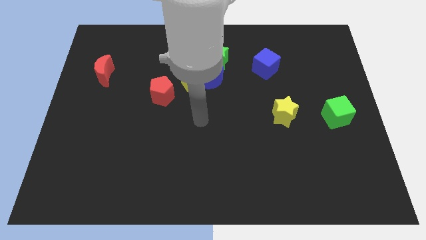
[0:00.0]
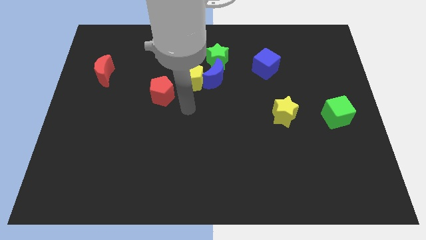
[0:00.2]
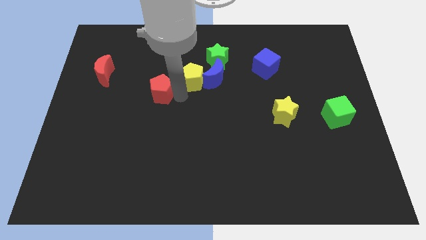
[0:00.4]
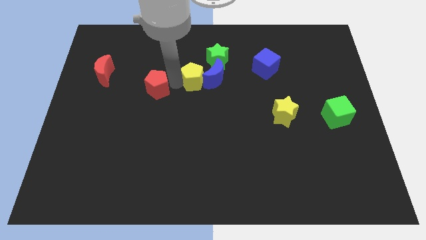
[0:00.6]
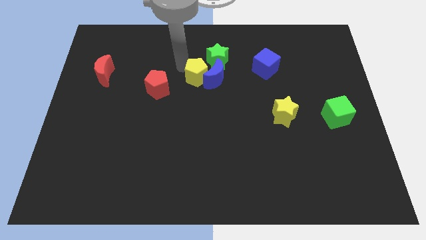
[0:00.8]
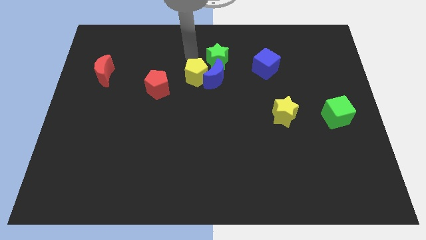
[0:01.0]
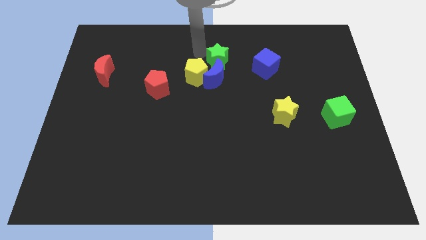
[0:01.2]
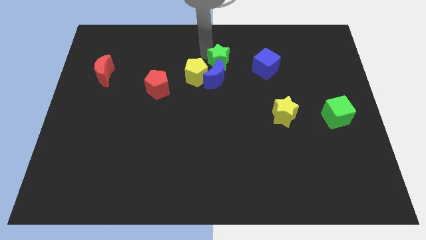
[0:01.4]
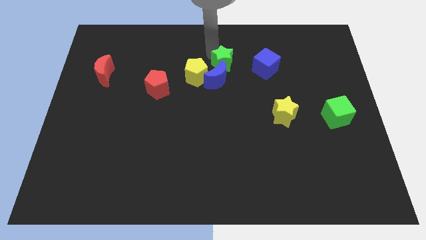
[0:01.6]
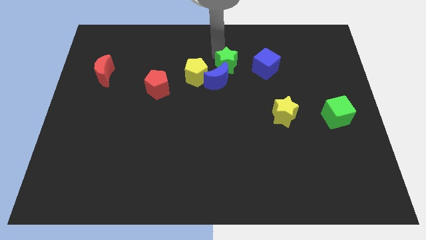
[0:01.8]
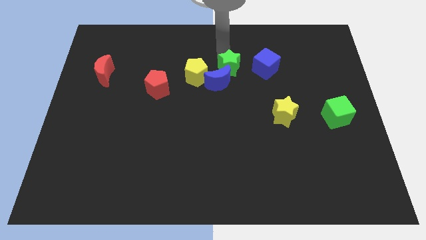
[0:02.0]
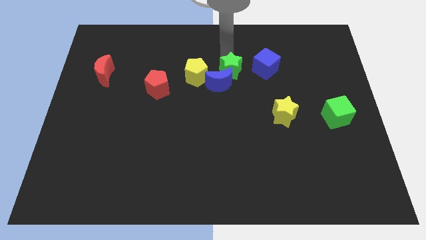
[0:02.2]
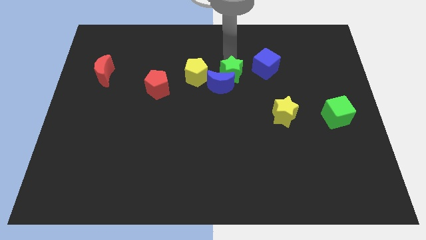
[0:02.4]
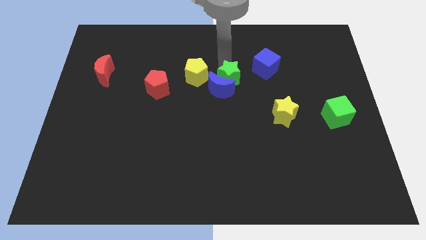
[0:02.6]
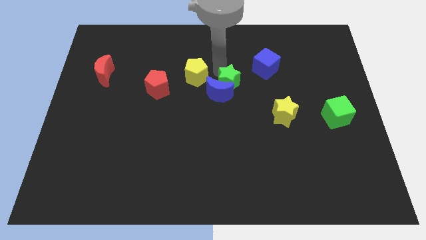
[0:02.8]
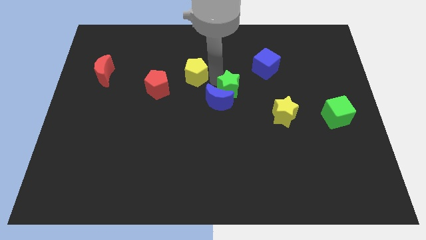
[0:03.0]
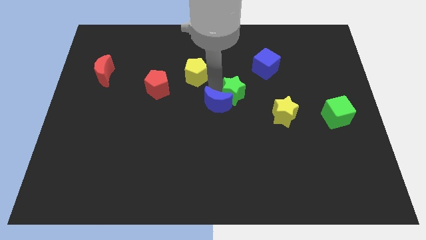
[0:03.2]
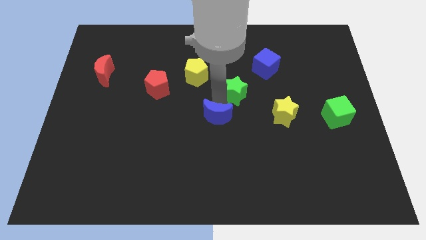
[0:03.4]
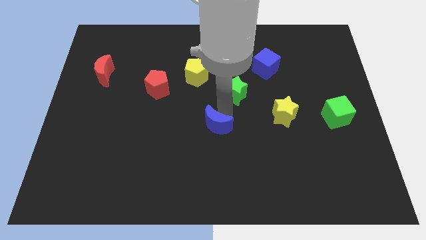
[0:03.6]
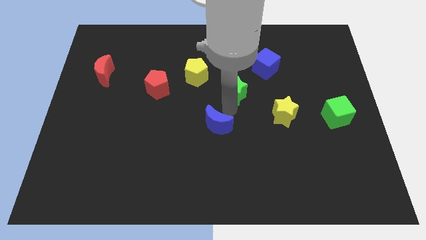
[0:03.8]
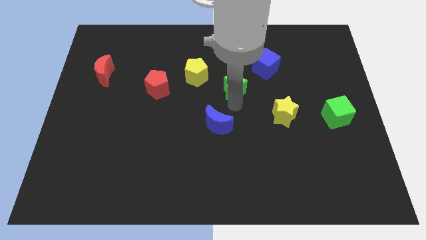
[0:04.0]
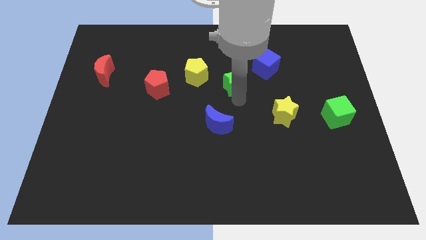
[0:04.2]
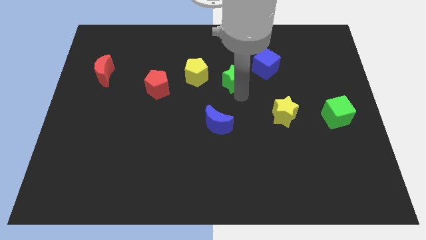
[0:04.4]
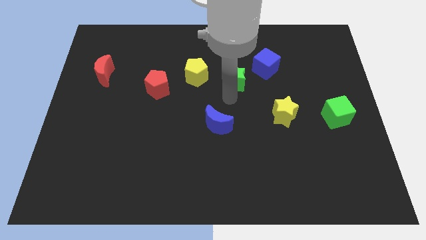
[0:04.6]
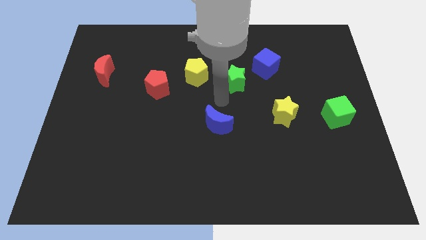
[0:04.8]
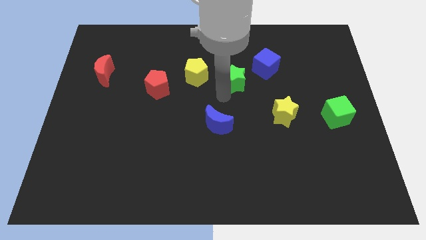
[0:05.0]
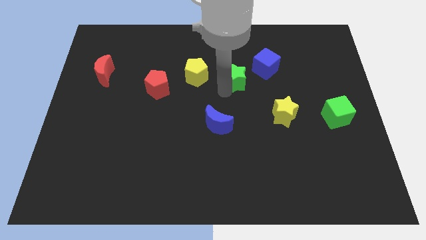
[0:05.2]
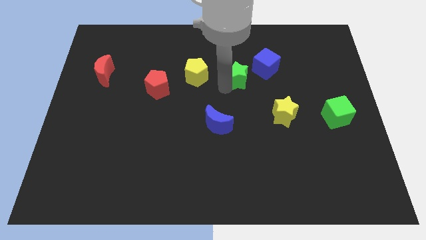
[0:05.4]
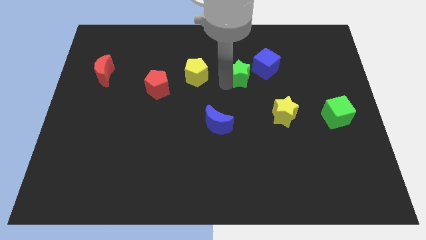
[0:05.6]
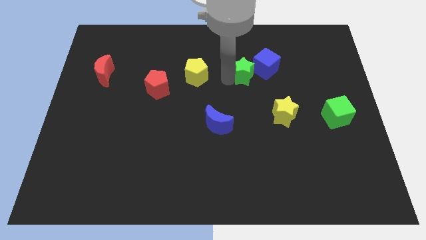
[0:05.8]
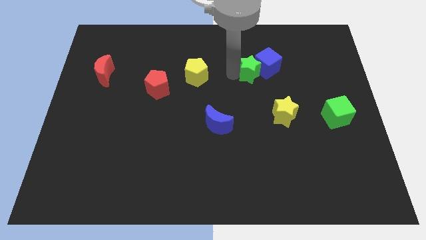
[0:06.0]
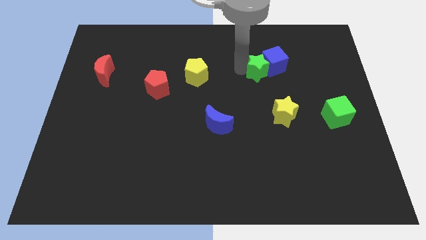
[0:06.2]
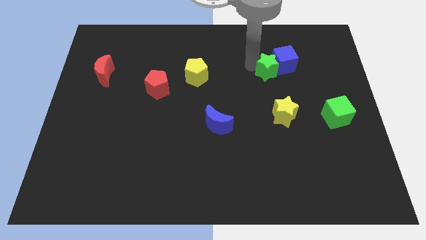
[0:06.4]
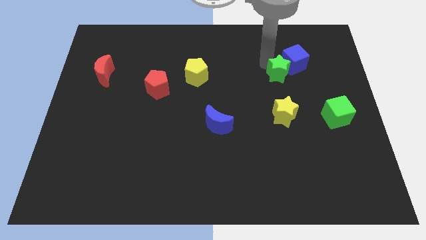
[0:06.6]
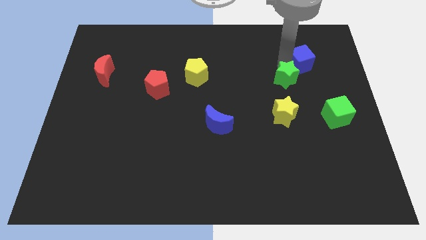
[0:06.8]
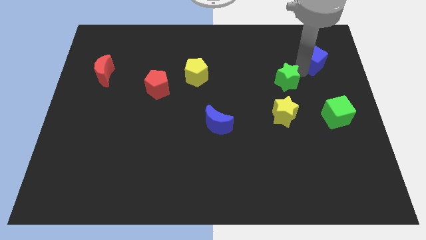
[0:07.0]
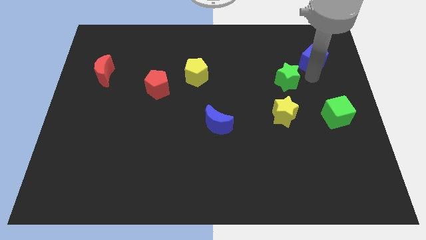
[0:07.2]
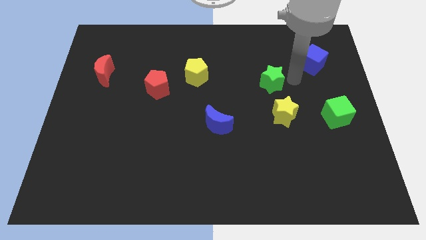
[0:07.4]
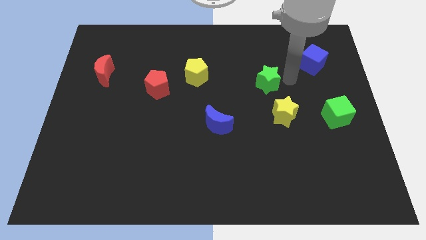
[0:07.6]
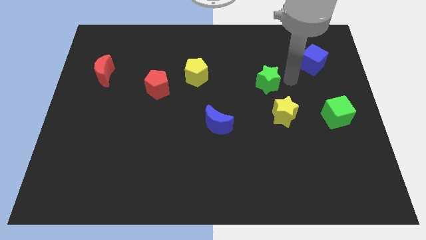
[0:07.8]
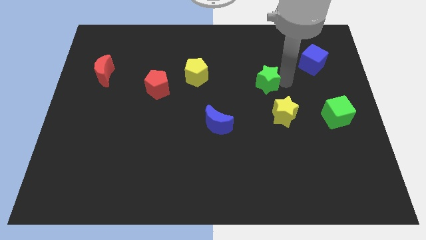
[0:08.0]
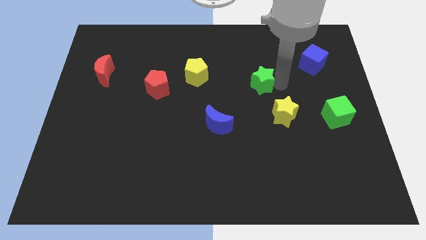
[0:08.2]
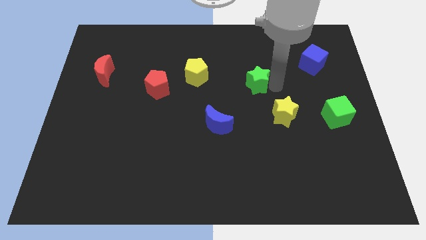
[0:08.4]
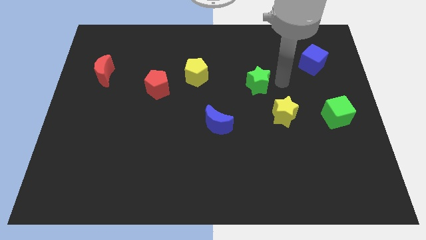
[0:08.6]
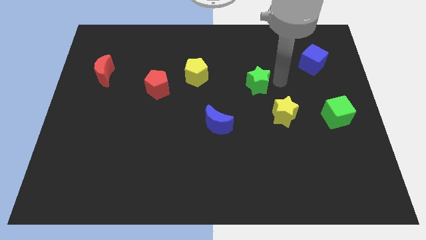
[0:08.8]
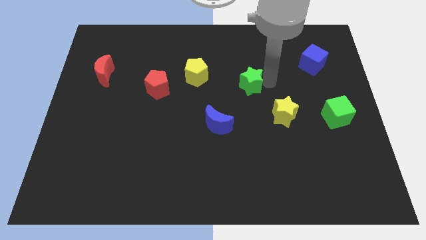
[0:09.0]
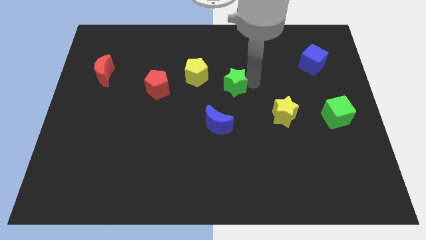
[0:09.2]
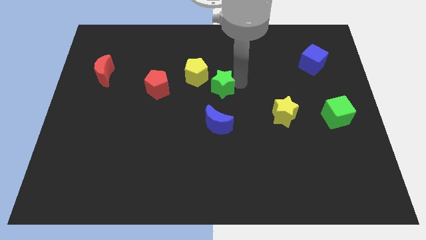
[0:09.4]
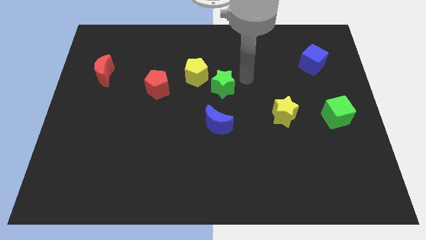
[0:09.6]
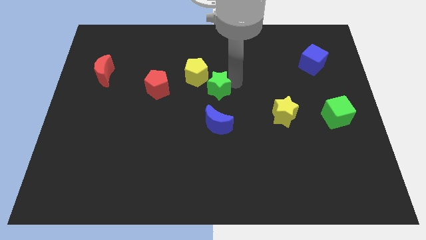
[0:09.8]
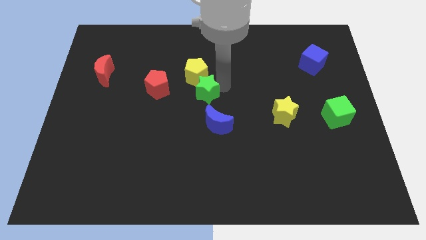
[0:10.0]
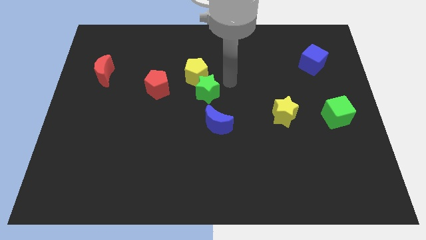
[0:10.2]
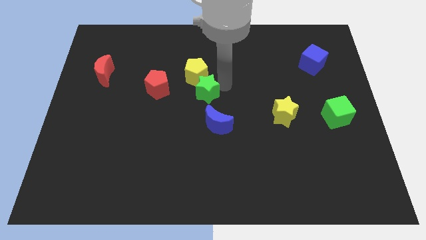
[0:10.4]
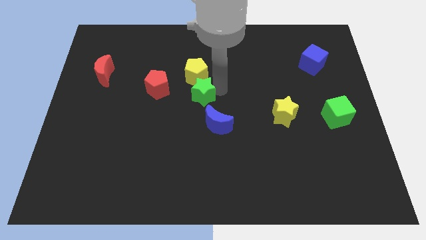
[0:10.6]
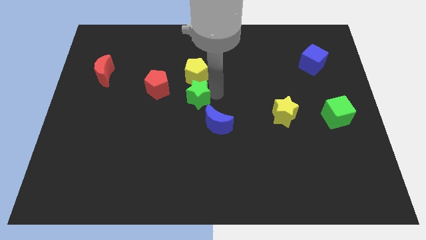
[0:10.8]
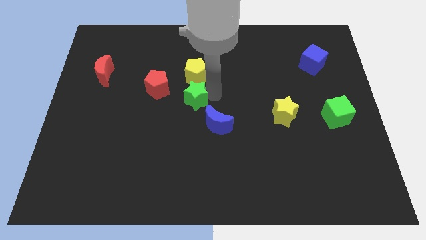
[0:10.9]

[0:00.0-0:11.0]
move the green star to the bottom right side of the red pentagon
